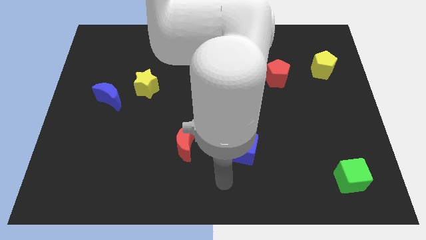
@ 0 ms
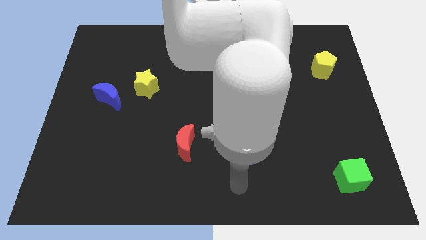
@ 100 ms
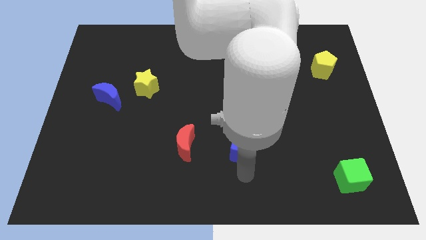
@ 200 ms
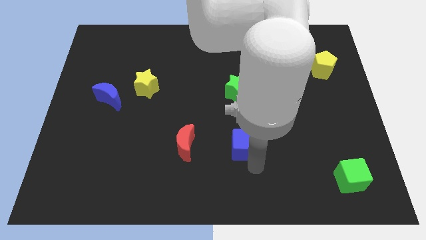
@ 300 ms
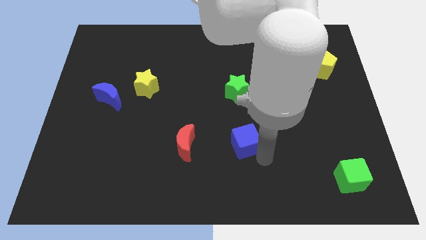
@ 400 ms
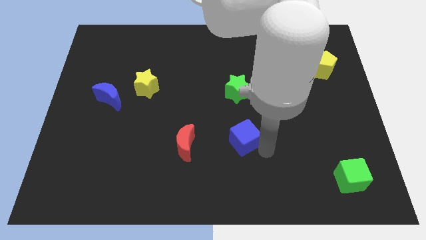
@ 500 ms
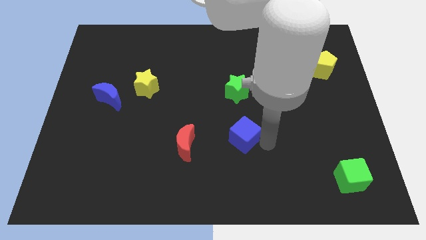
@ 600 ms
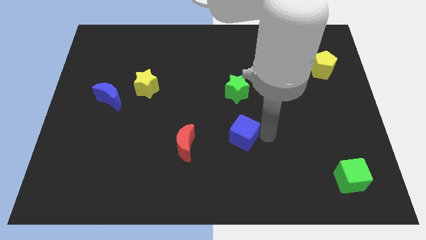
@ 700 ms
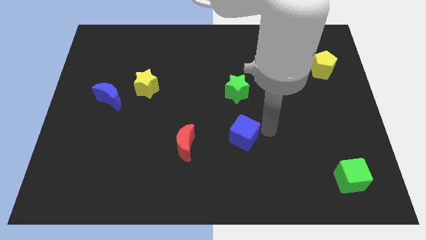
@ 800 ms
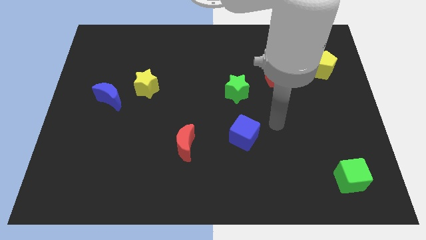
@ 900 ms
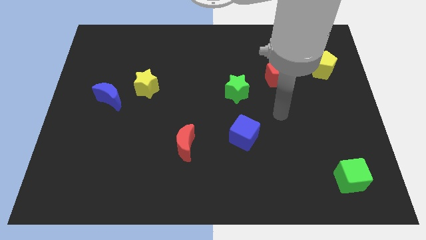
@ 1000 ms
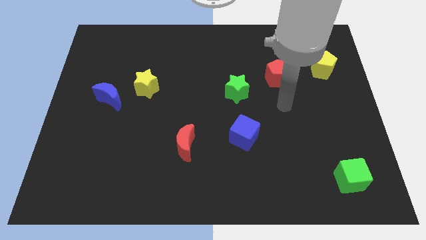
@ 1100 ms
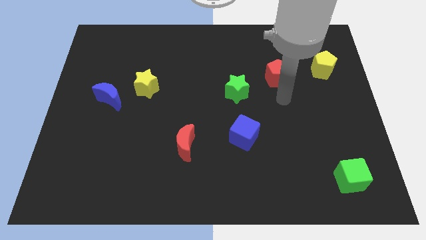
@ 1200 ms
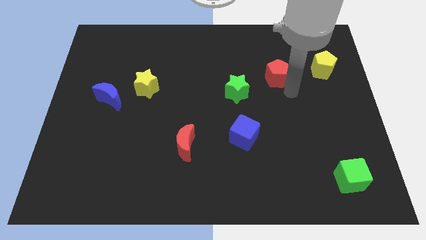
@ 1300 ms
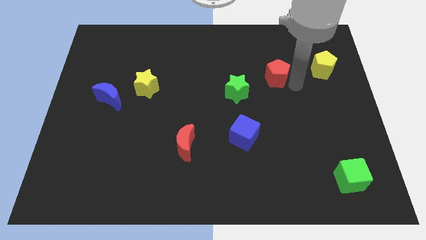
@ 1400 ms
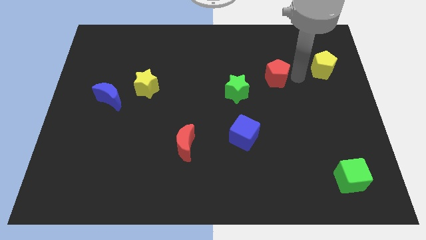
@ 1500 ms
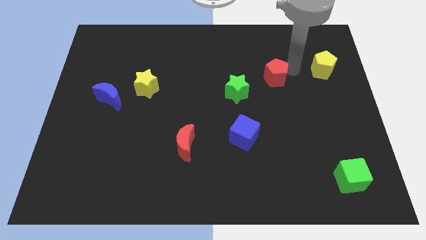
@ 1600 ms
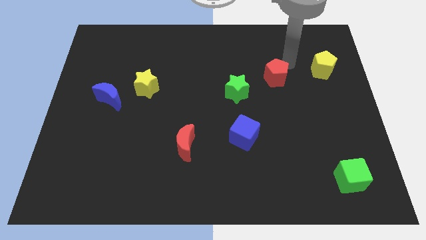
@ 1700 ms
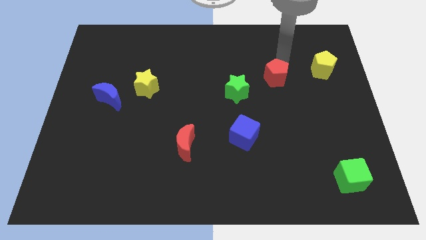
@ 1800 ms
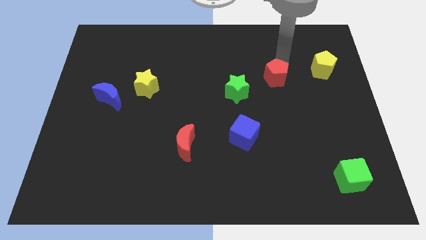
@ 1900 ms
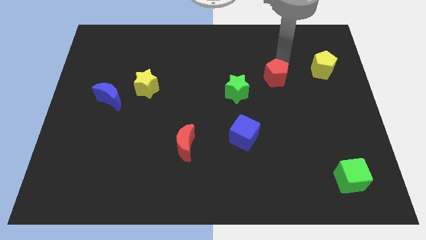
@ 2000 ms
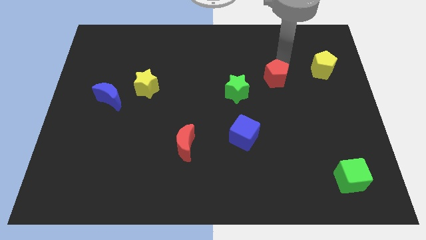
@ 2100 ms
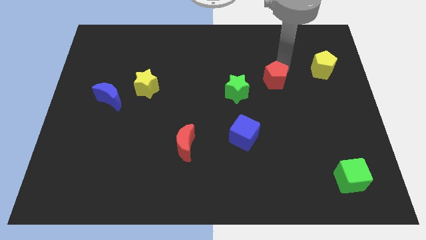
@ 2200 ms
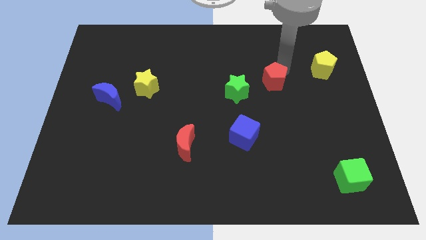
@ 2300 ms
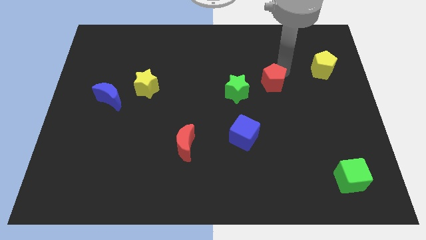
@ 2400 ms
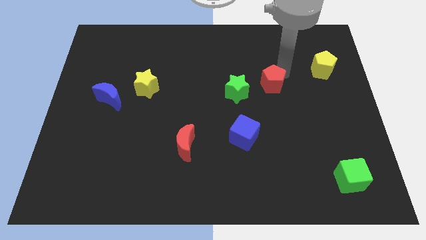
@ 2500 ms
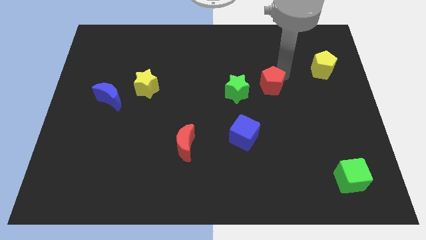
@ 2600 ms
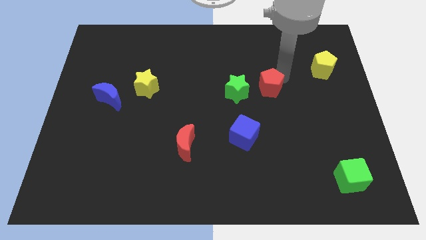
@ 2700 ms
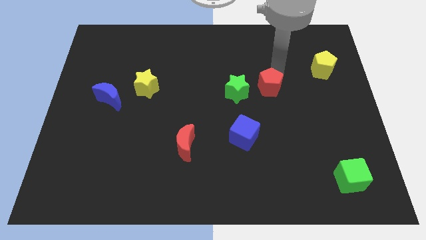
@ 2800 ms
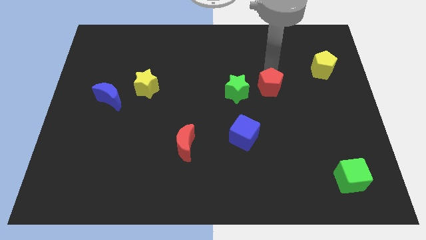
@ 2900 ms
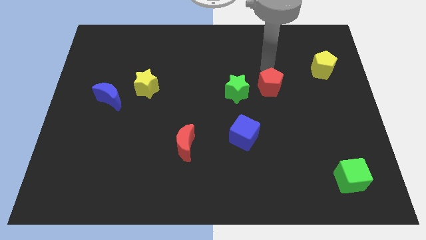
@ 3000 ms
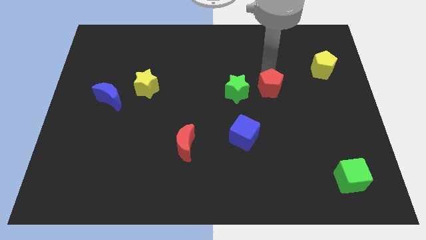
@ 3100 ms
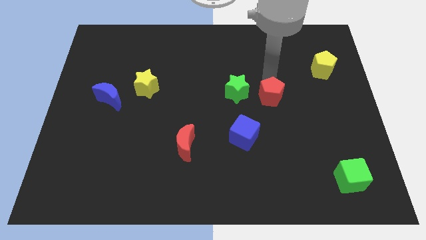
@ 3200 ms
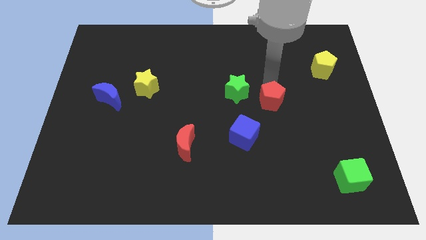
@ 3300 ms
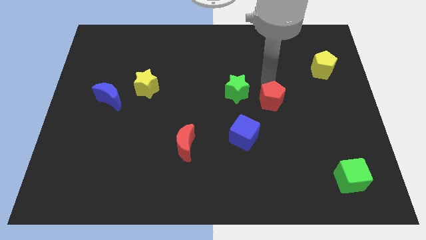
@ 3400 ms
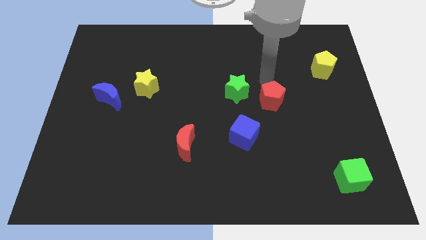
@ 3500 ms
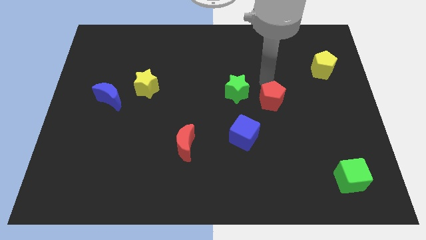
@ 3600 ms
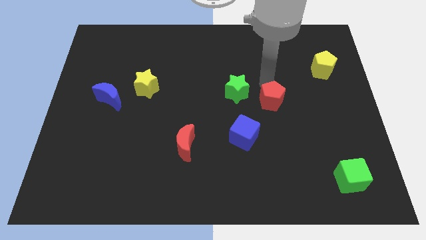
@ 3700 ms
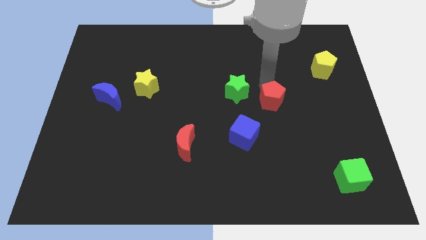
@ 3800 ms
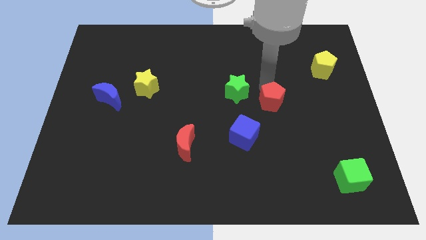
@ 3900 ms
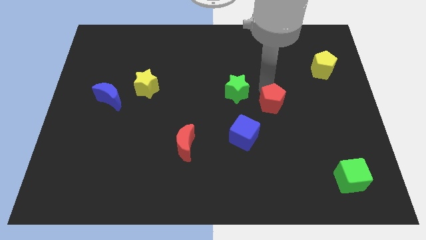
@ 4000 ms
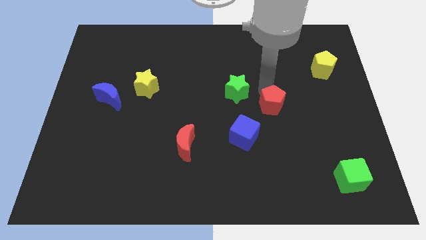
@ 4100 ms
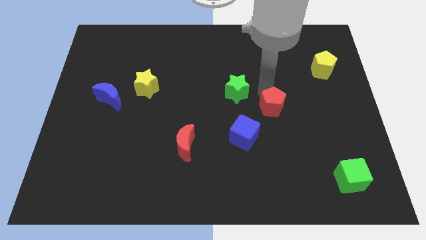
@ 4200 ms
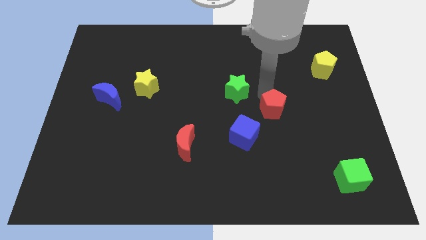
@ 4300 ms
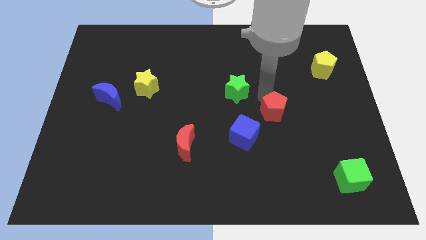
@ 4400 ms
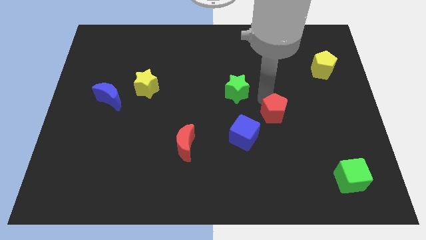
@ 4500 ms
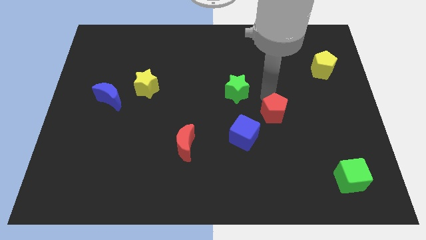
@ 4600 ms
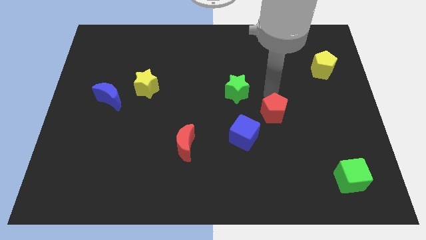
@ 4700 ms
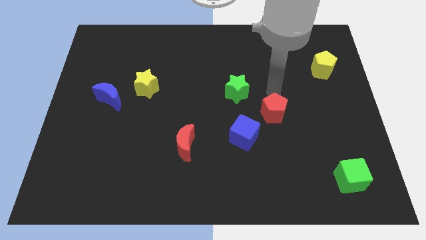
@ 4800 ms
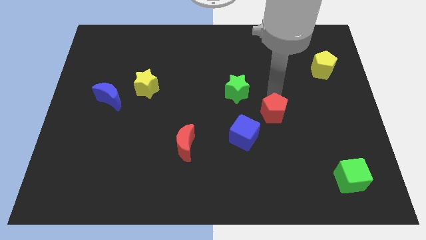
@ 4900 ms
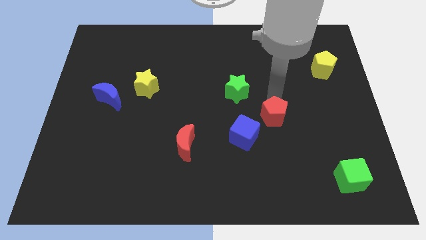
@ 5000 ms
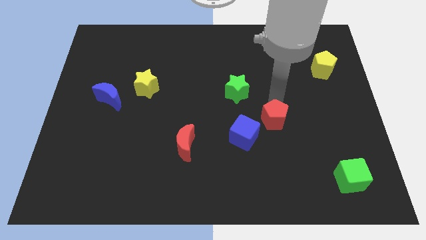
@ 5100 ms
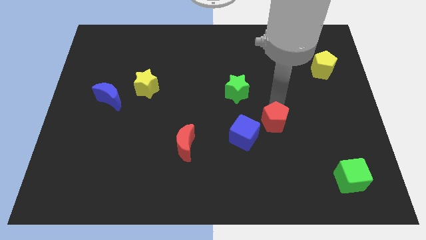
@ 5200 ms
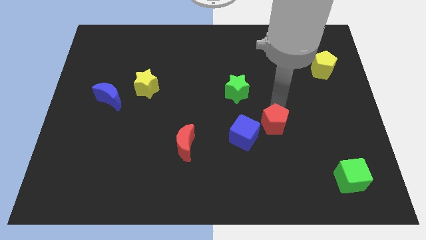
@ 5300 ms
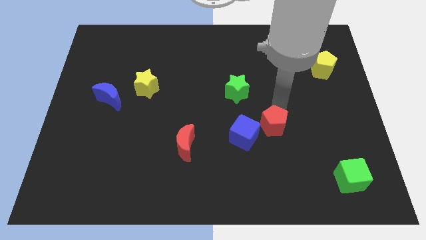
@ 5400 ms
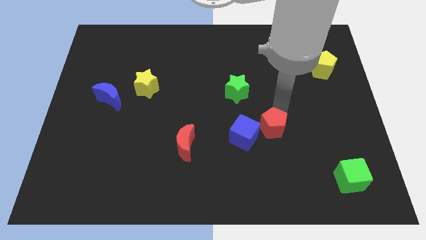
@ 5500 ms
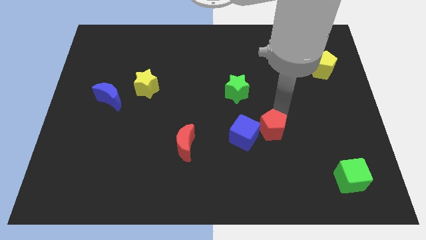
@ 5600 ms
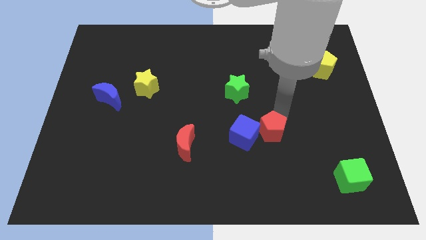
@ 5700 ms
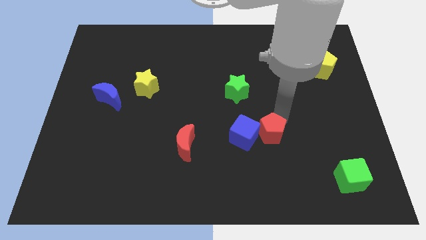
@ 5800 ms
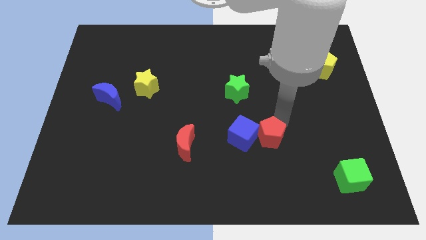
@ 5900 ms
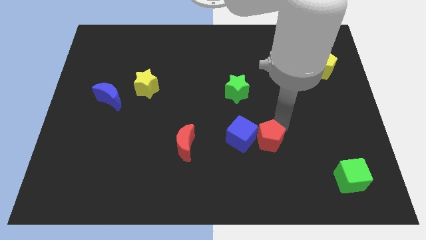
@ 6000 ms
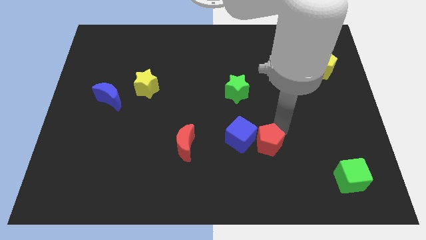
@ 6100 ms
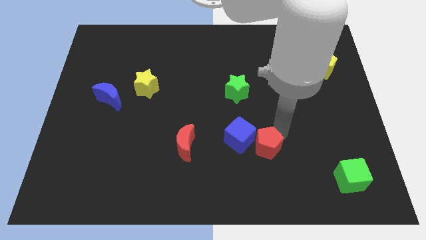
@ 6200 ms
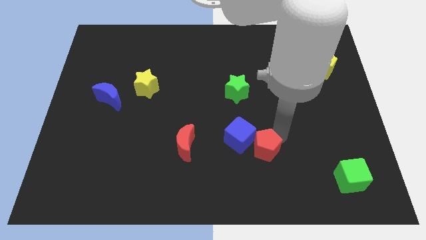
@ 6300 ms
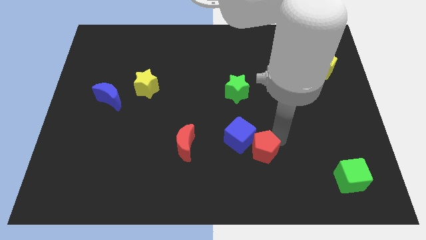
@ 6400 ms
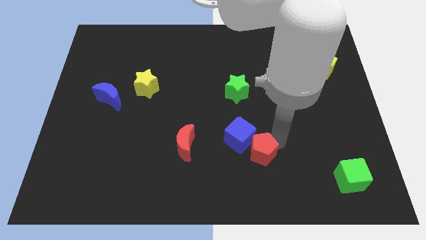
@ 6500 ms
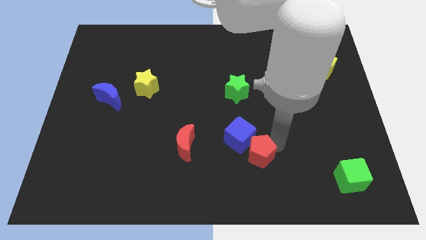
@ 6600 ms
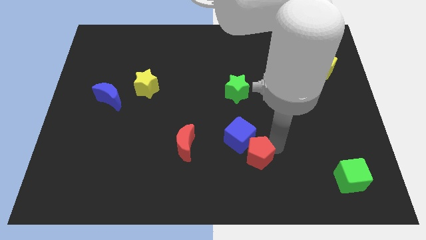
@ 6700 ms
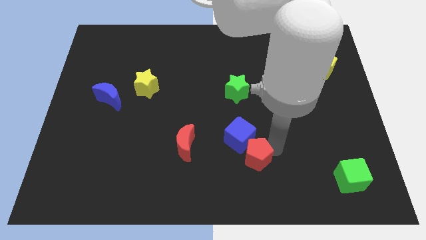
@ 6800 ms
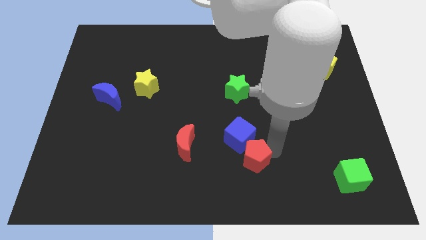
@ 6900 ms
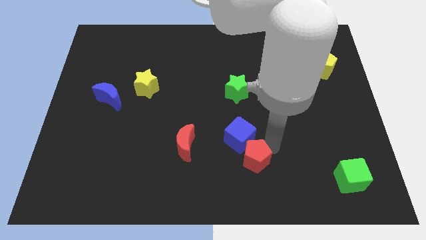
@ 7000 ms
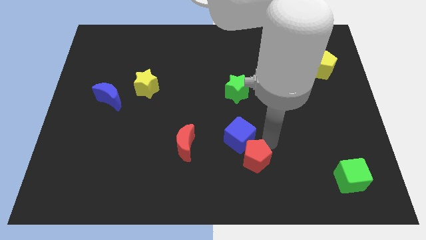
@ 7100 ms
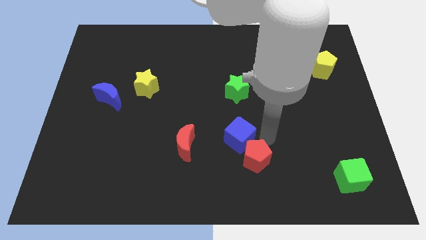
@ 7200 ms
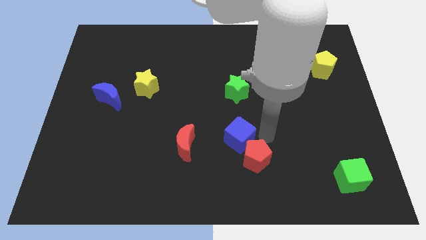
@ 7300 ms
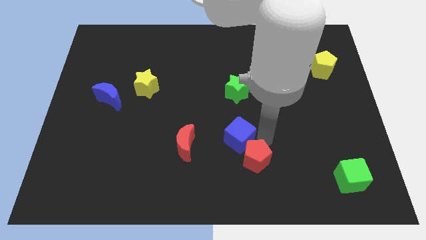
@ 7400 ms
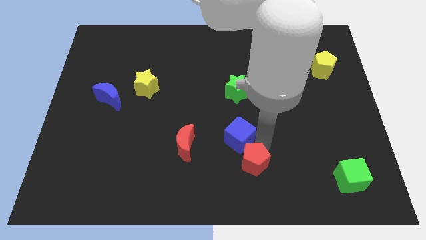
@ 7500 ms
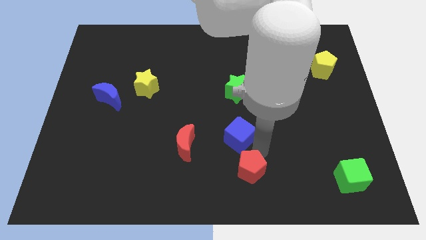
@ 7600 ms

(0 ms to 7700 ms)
move the red pentagon to the bottom side
